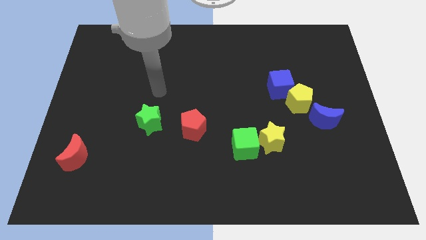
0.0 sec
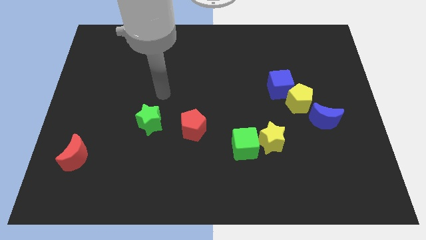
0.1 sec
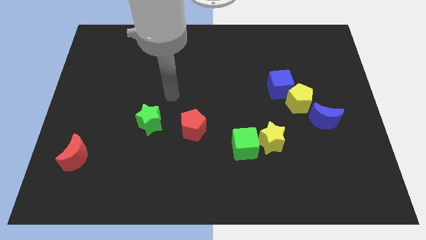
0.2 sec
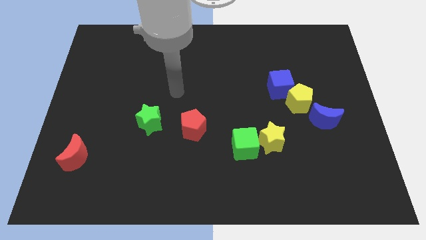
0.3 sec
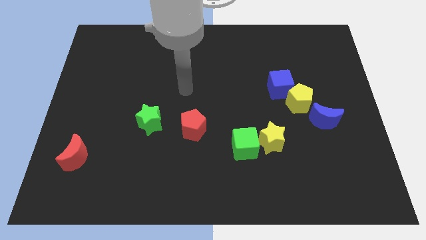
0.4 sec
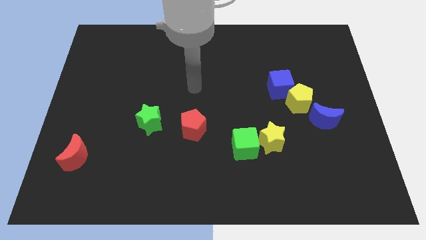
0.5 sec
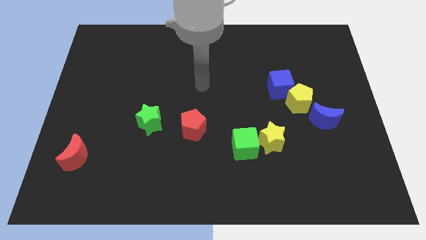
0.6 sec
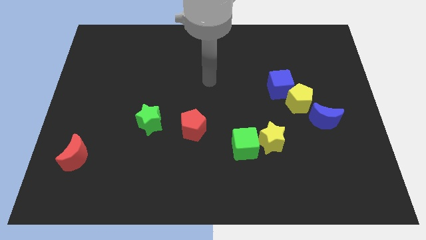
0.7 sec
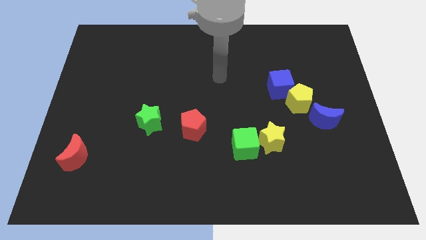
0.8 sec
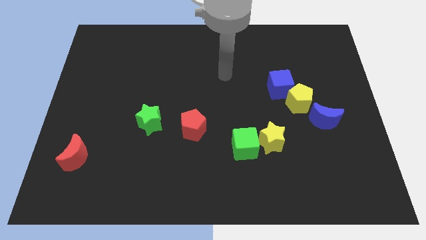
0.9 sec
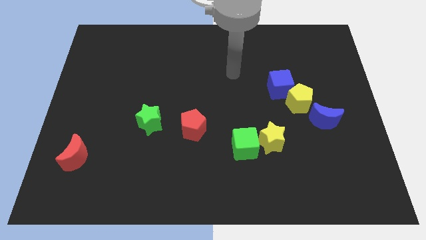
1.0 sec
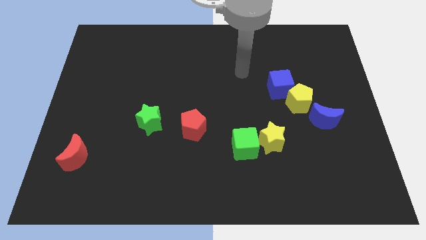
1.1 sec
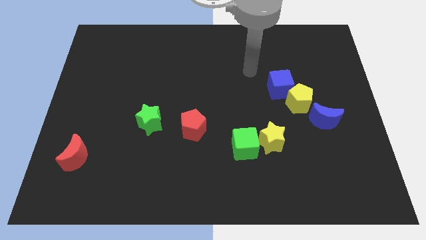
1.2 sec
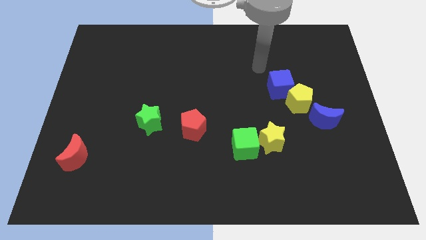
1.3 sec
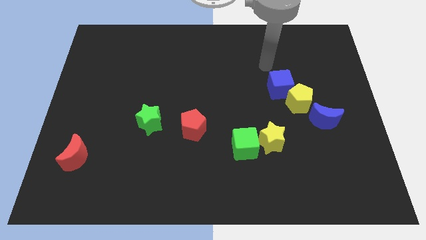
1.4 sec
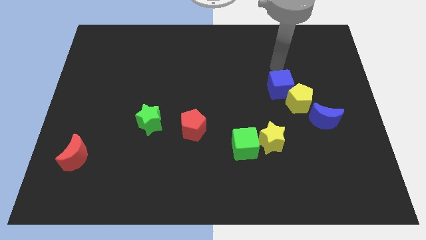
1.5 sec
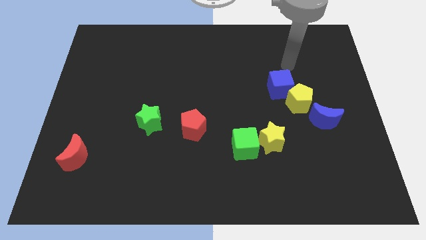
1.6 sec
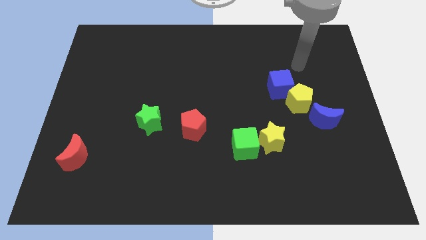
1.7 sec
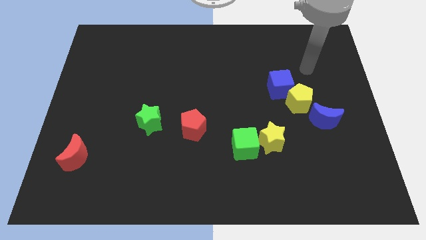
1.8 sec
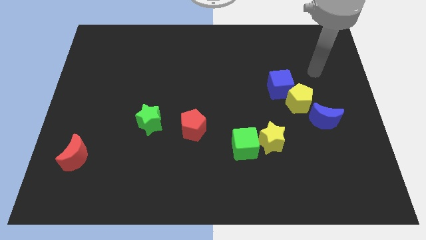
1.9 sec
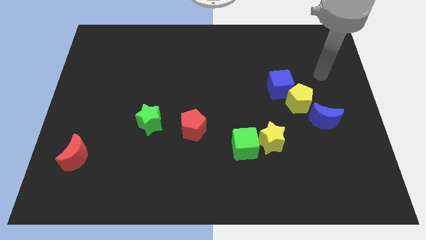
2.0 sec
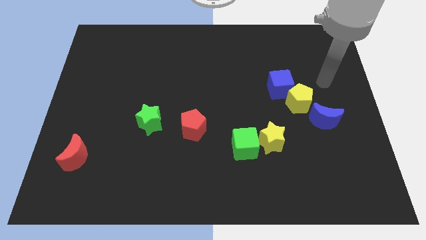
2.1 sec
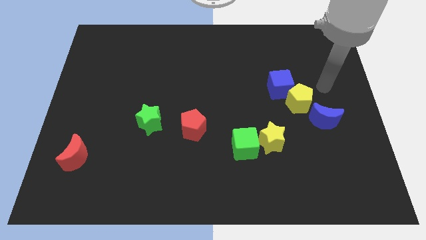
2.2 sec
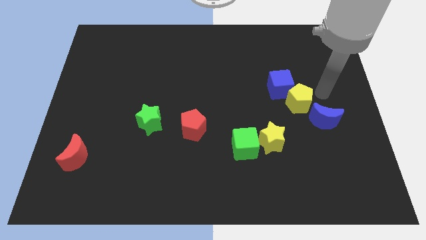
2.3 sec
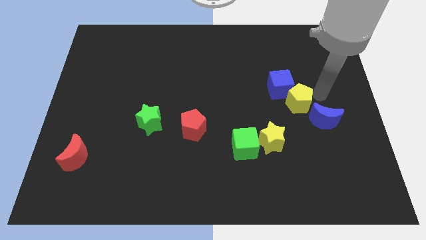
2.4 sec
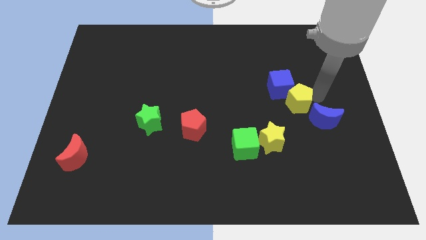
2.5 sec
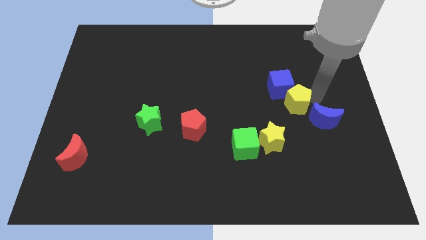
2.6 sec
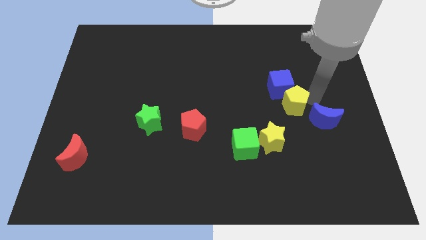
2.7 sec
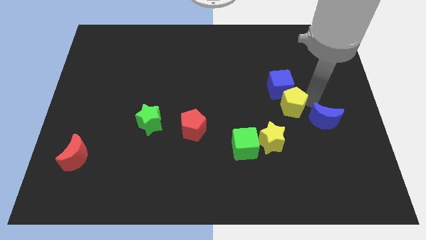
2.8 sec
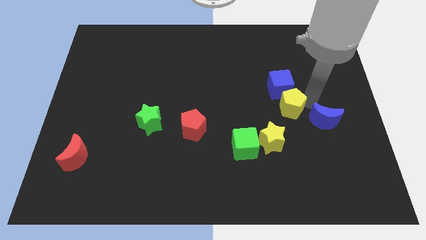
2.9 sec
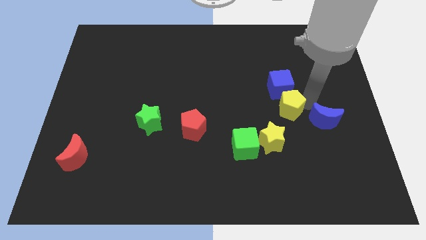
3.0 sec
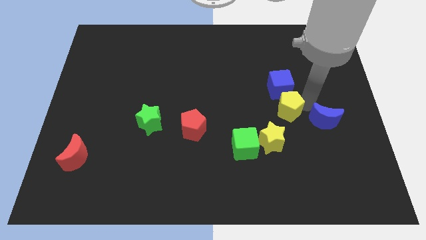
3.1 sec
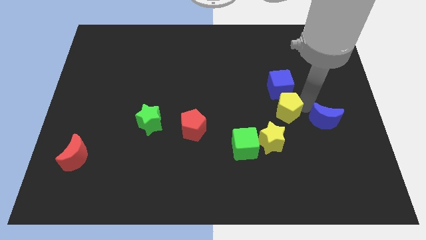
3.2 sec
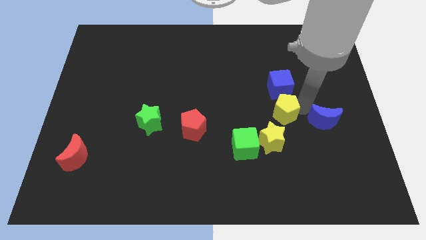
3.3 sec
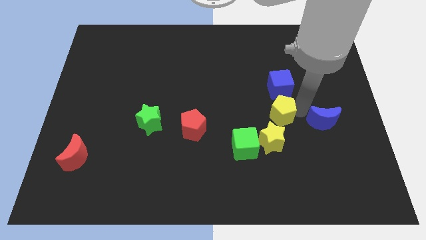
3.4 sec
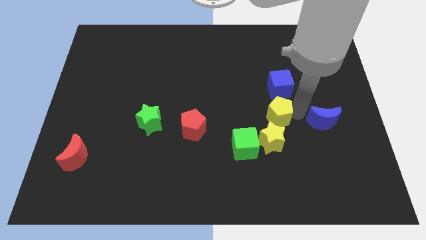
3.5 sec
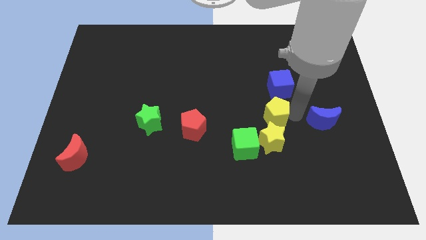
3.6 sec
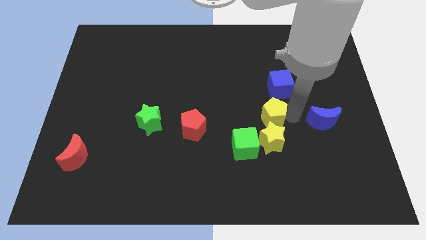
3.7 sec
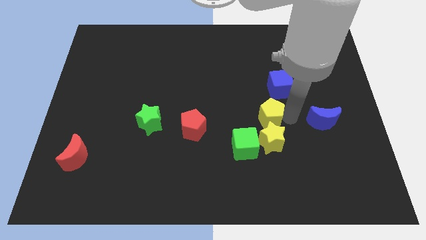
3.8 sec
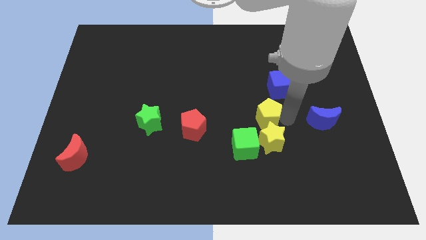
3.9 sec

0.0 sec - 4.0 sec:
move the yellow pentagon to the left somewhat

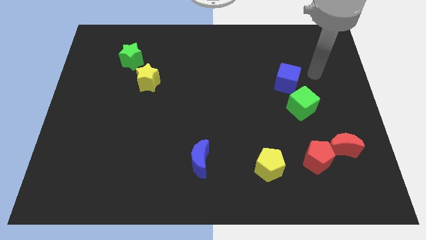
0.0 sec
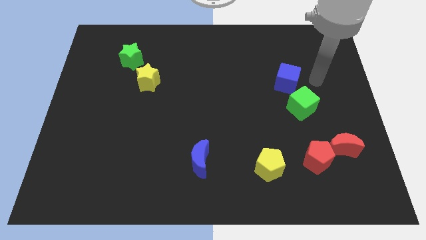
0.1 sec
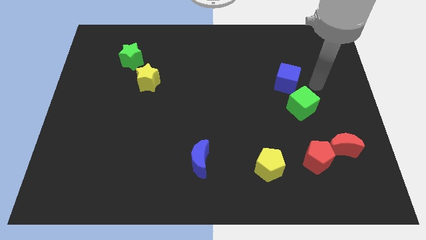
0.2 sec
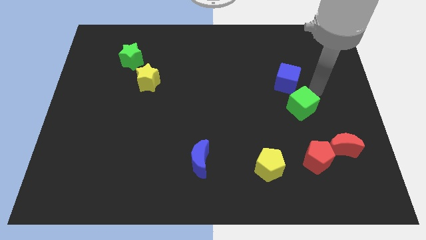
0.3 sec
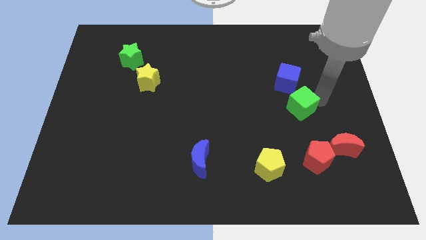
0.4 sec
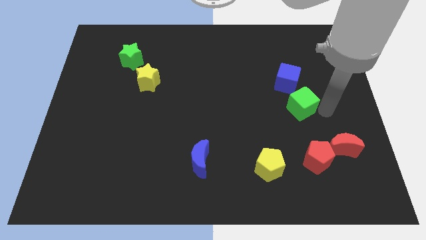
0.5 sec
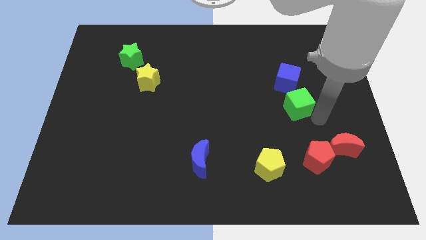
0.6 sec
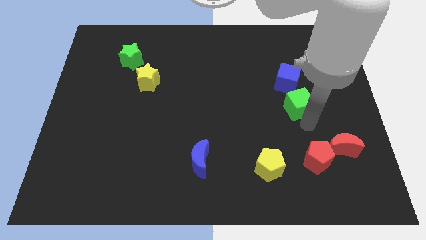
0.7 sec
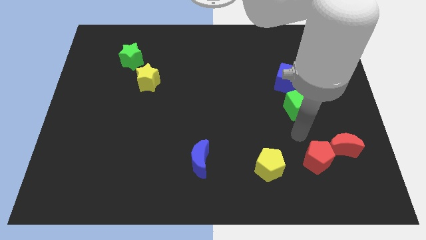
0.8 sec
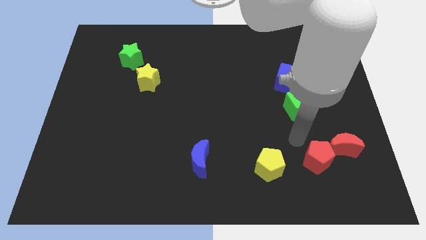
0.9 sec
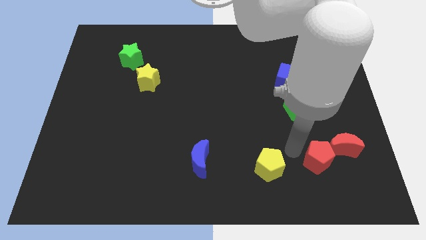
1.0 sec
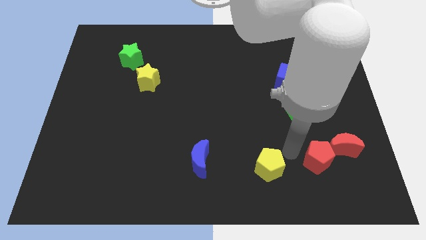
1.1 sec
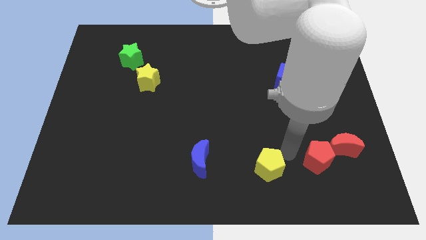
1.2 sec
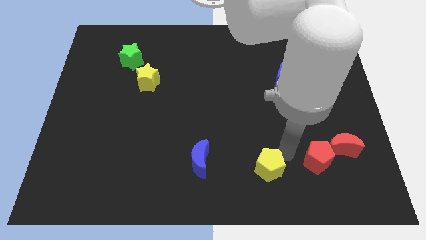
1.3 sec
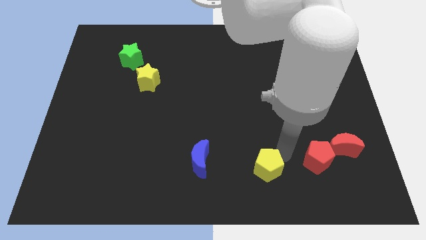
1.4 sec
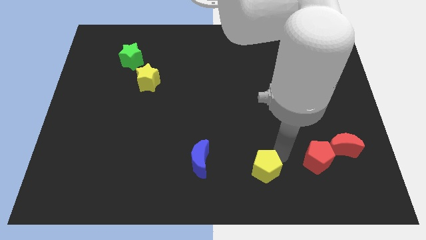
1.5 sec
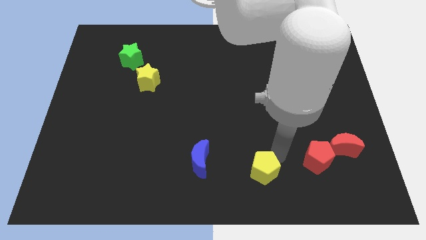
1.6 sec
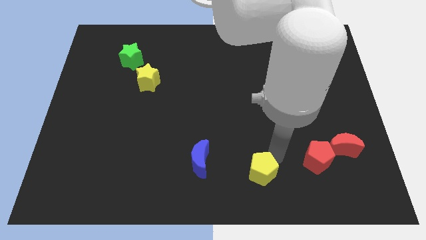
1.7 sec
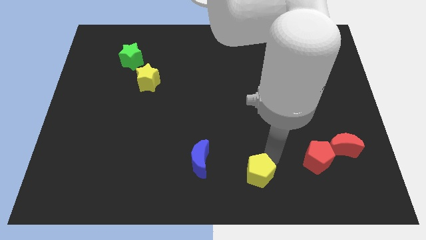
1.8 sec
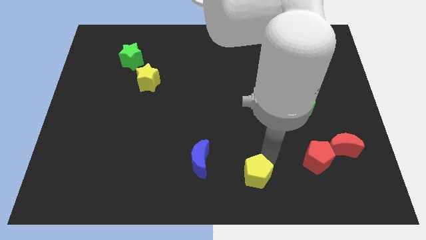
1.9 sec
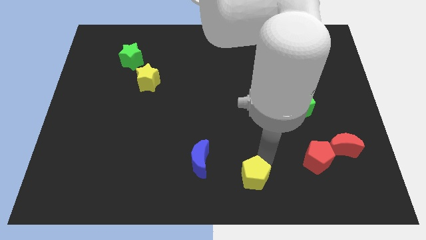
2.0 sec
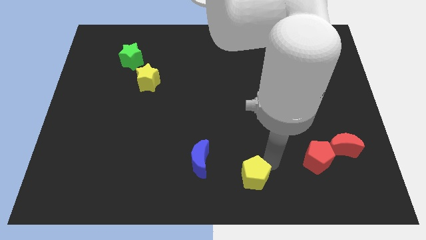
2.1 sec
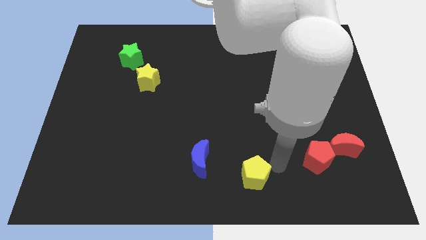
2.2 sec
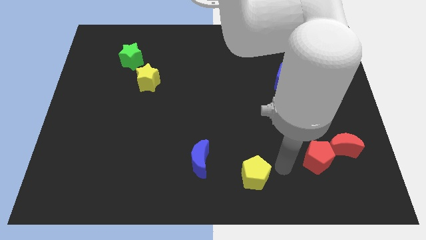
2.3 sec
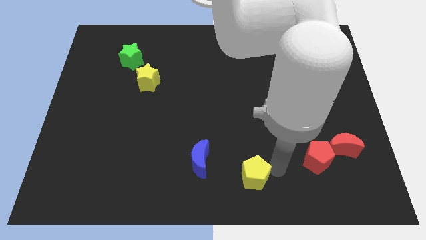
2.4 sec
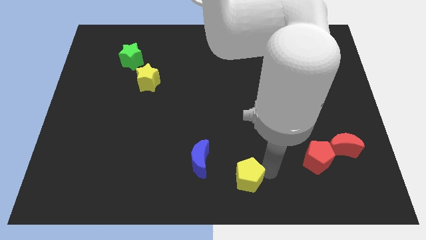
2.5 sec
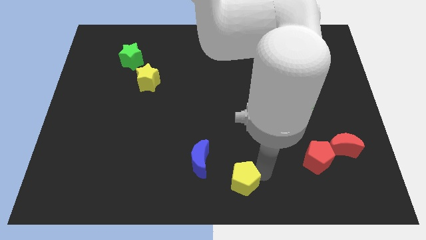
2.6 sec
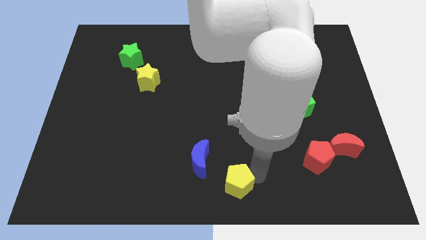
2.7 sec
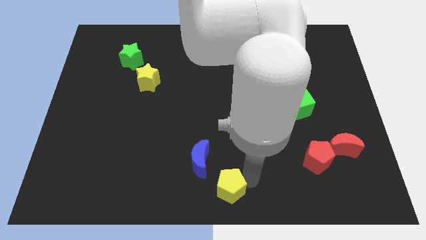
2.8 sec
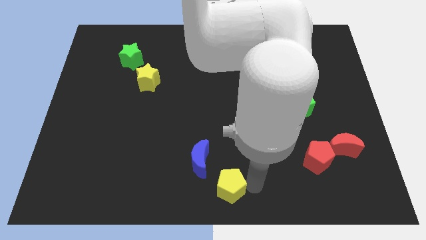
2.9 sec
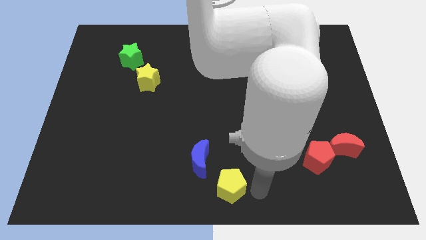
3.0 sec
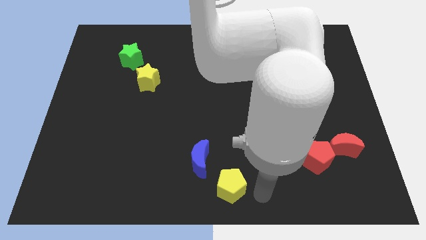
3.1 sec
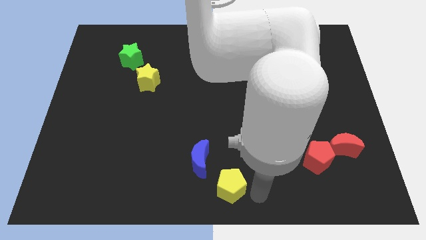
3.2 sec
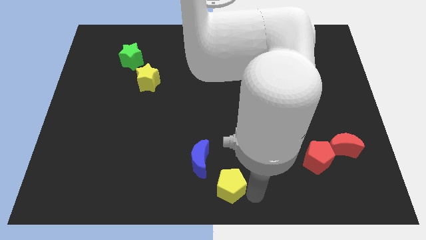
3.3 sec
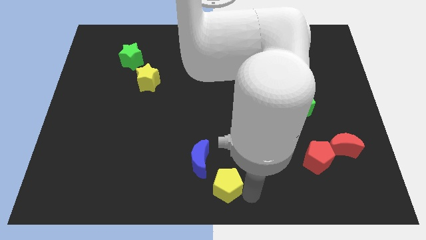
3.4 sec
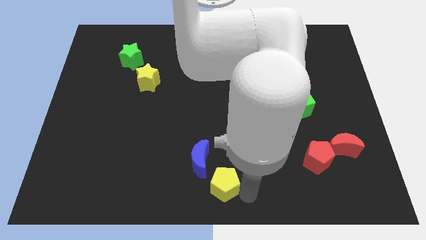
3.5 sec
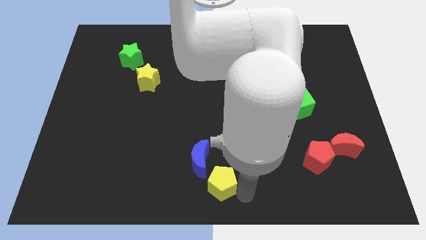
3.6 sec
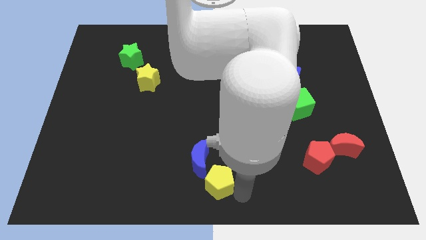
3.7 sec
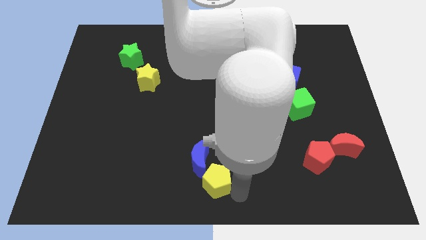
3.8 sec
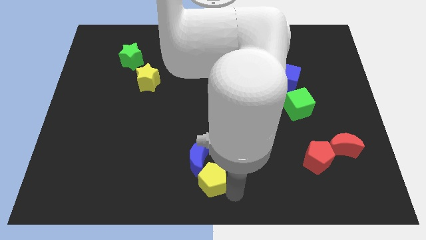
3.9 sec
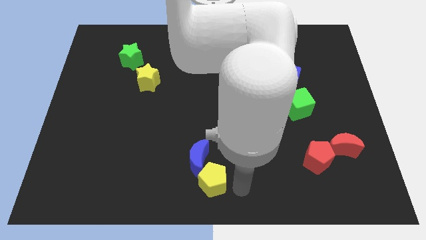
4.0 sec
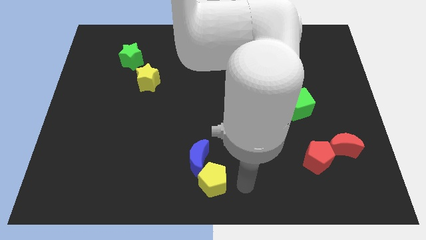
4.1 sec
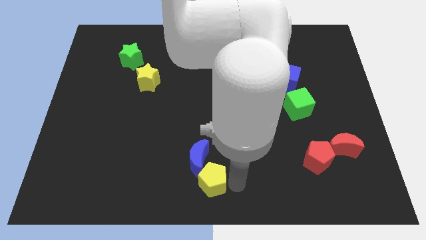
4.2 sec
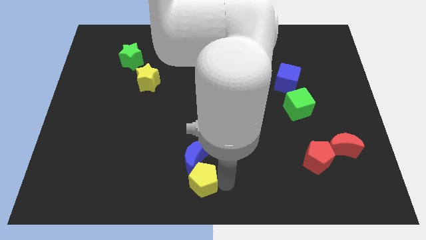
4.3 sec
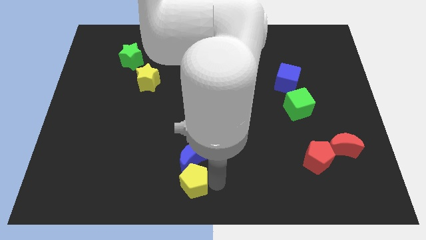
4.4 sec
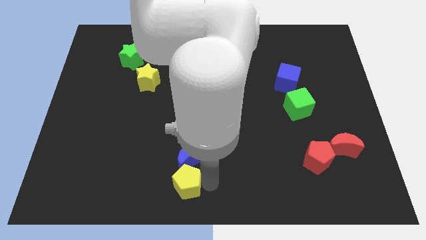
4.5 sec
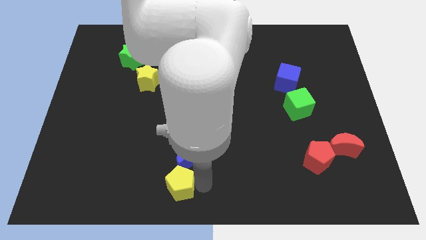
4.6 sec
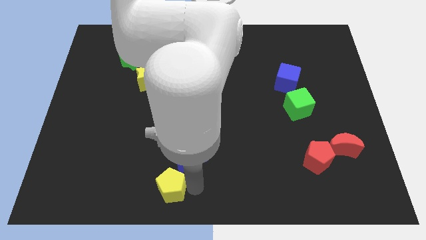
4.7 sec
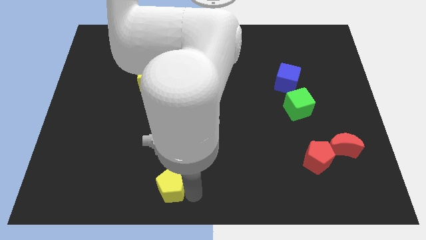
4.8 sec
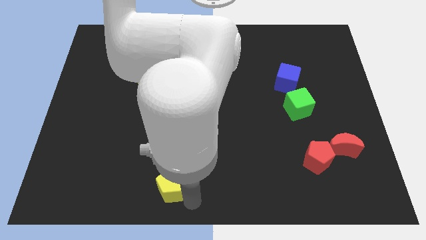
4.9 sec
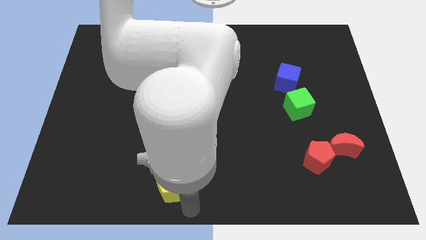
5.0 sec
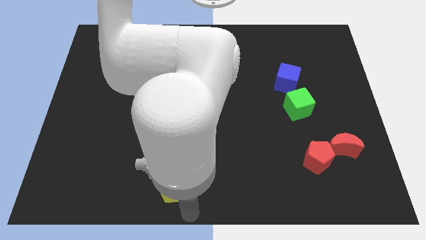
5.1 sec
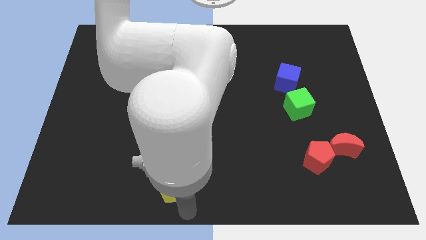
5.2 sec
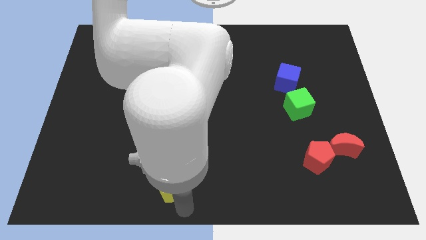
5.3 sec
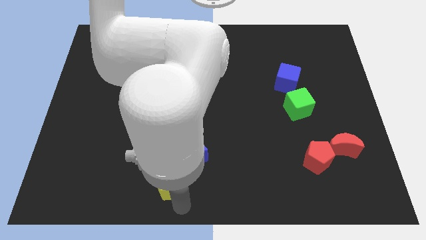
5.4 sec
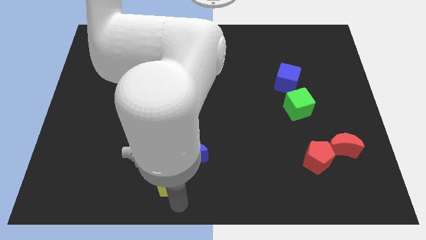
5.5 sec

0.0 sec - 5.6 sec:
slide the yellow pentagon left
